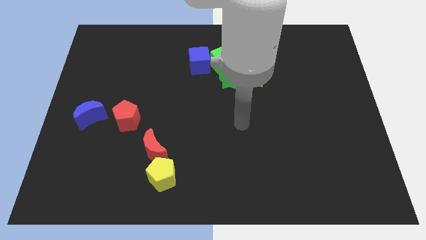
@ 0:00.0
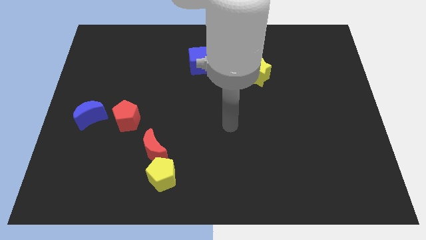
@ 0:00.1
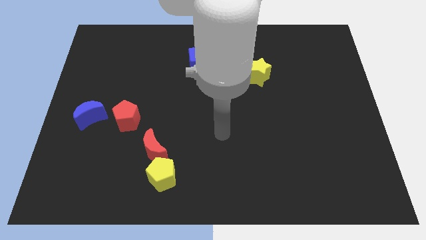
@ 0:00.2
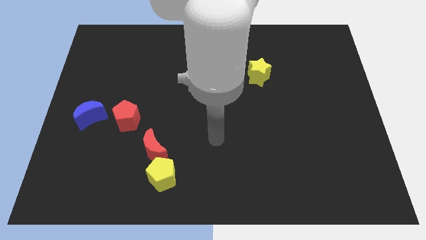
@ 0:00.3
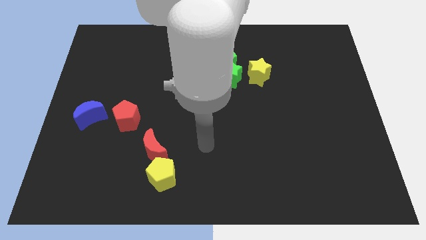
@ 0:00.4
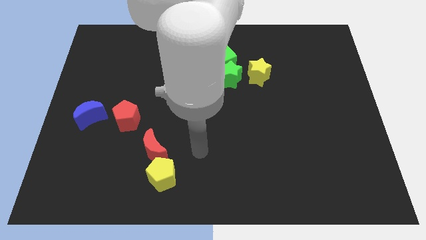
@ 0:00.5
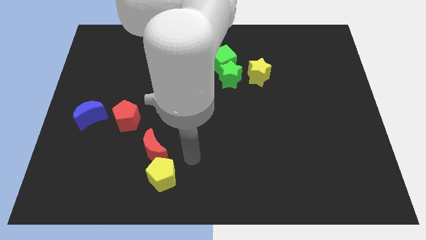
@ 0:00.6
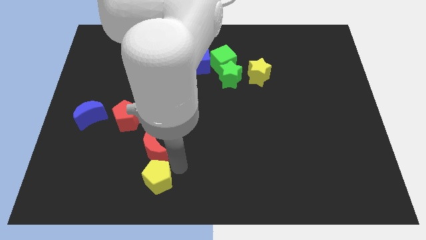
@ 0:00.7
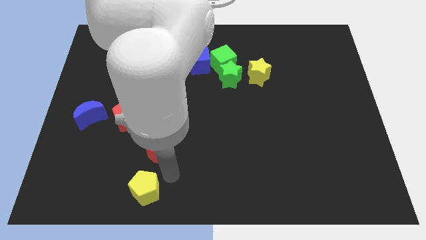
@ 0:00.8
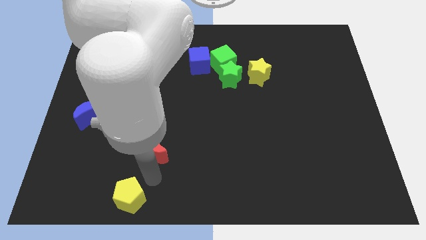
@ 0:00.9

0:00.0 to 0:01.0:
move the red moon away from the yellow pentagon

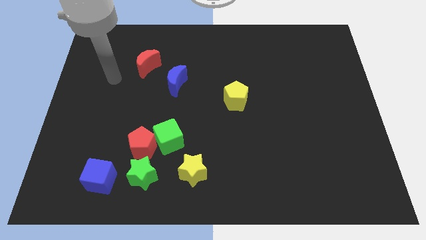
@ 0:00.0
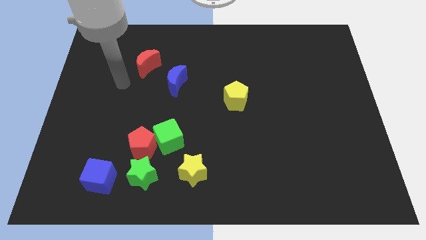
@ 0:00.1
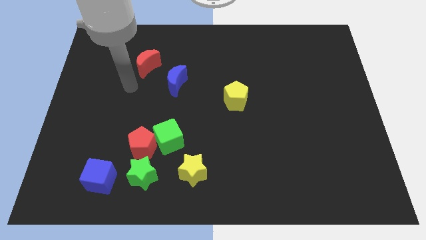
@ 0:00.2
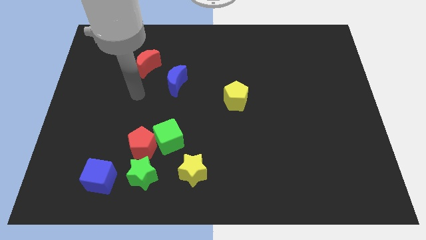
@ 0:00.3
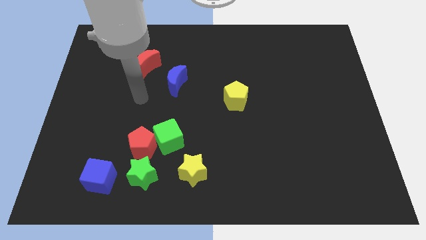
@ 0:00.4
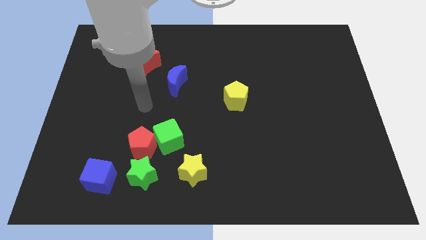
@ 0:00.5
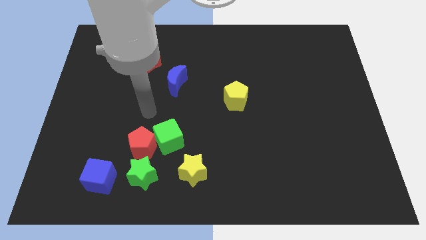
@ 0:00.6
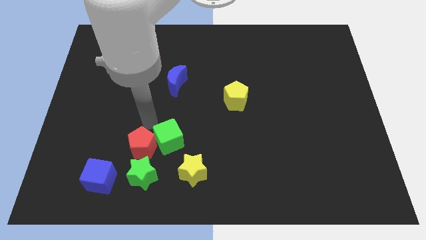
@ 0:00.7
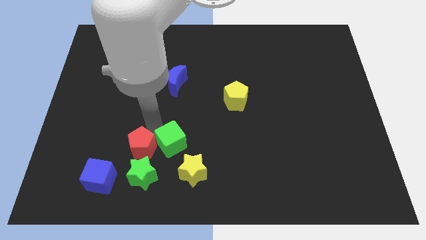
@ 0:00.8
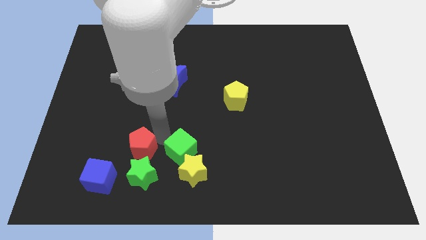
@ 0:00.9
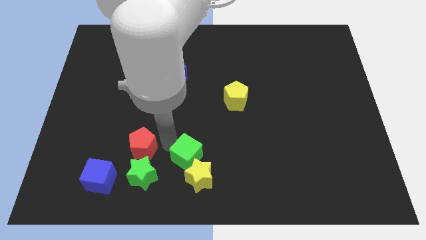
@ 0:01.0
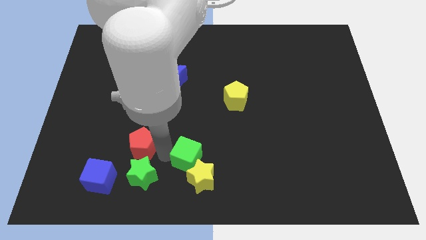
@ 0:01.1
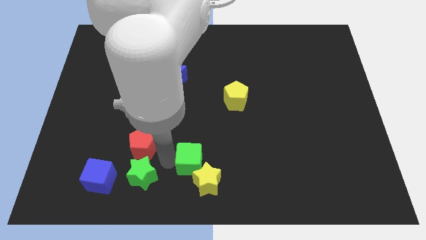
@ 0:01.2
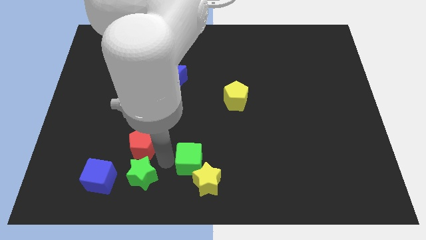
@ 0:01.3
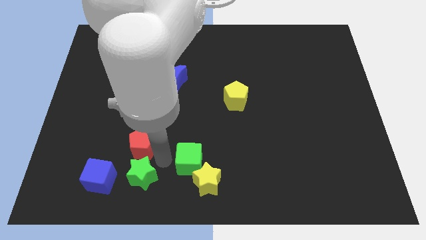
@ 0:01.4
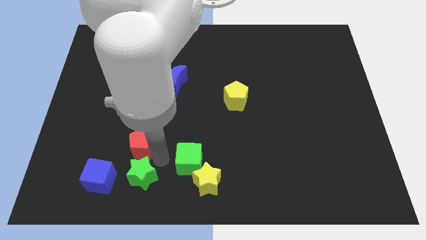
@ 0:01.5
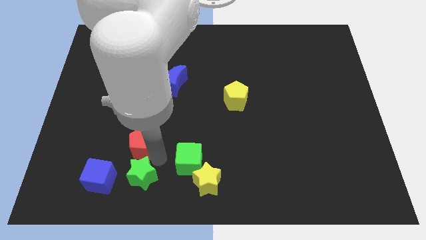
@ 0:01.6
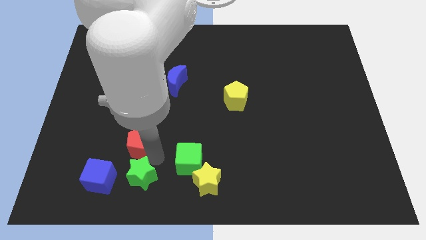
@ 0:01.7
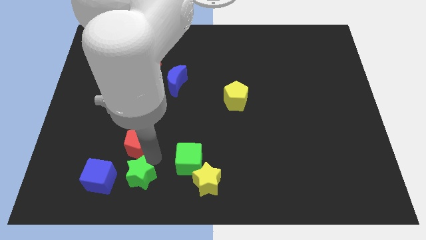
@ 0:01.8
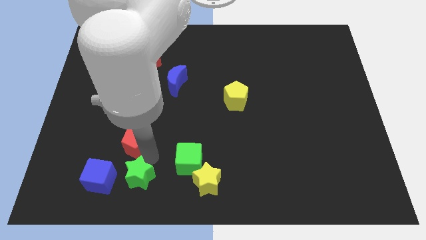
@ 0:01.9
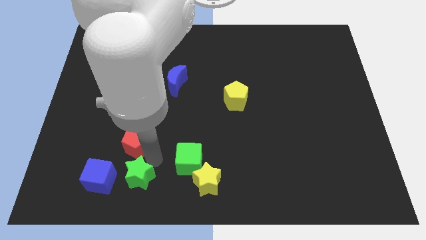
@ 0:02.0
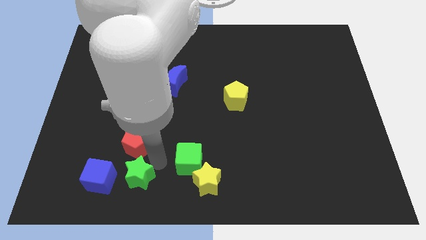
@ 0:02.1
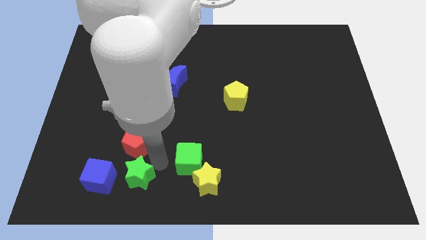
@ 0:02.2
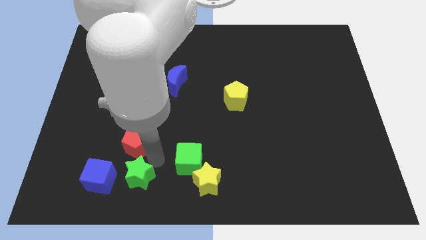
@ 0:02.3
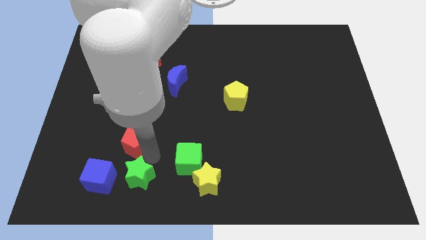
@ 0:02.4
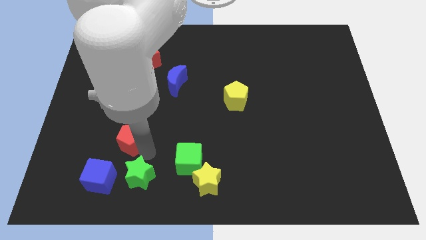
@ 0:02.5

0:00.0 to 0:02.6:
separate the red pentagon from the green cube and green star

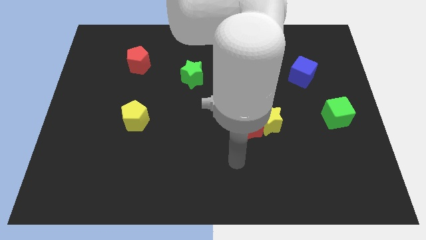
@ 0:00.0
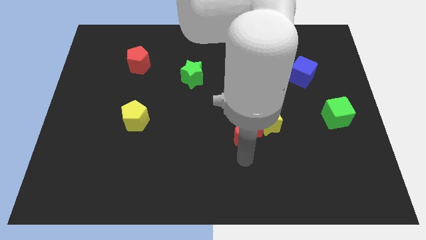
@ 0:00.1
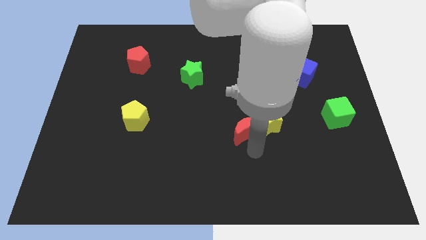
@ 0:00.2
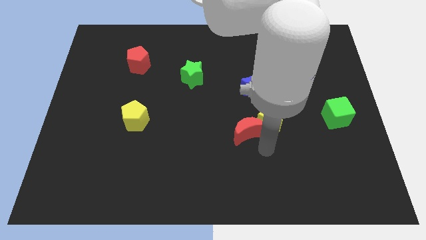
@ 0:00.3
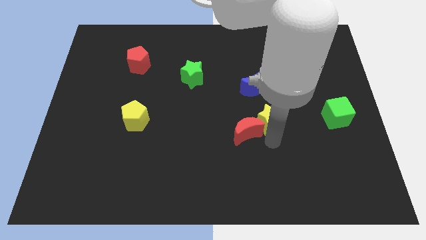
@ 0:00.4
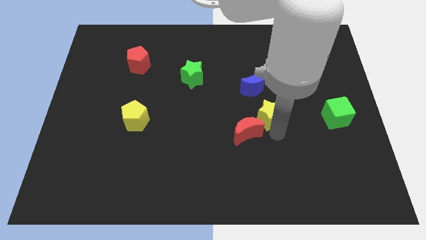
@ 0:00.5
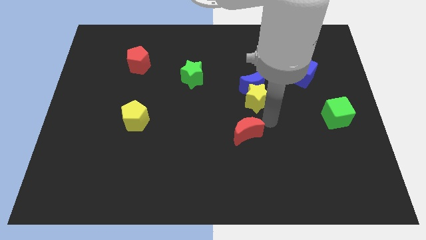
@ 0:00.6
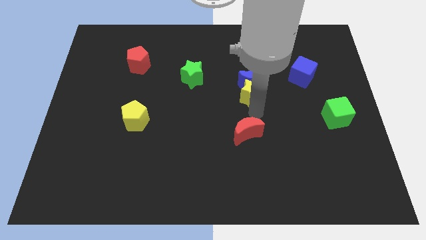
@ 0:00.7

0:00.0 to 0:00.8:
move the red moon away from the yellow star

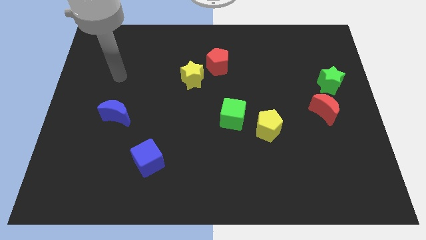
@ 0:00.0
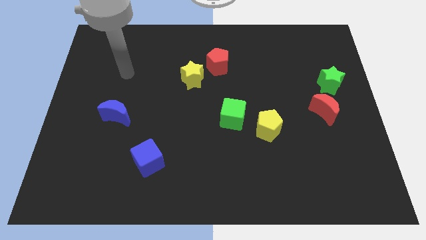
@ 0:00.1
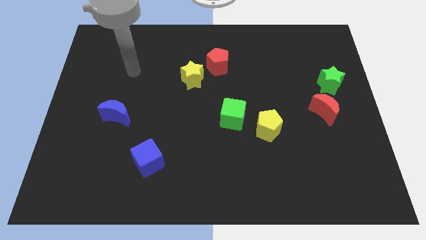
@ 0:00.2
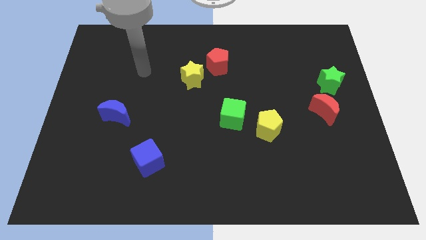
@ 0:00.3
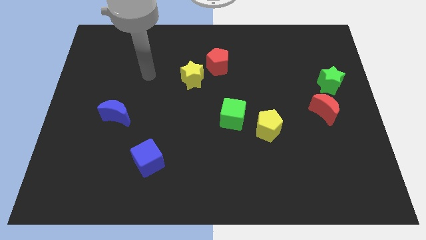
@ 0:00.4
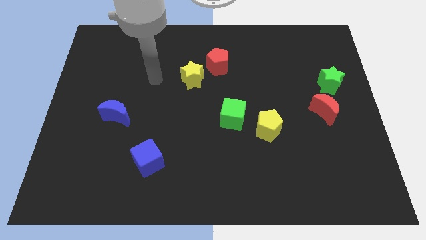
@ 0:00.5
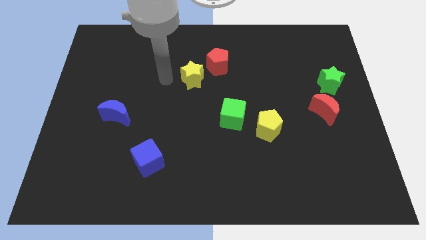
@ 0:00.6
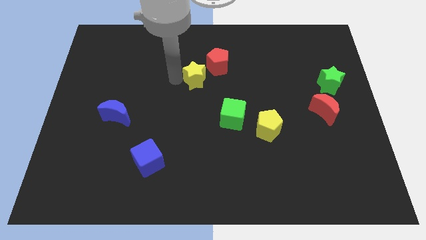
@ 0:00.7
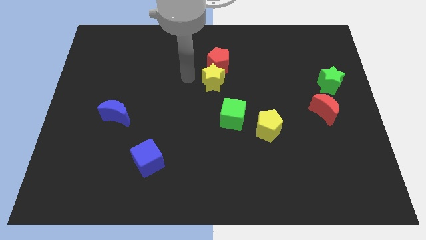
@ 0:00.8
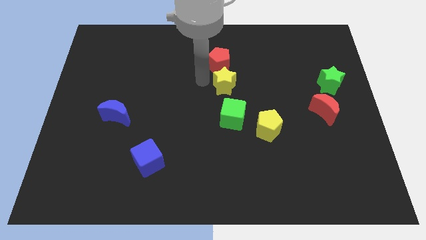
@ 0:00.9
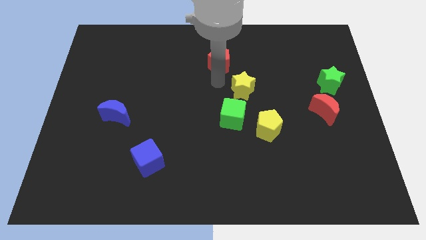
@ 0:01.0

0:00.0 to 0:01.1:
pull the red pentagon apart from the yellow star

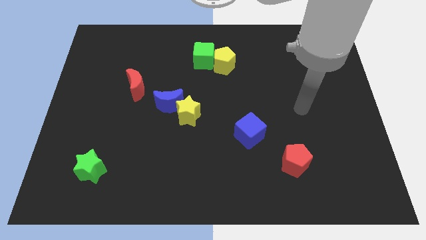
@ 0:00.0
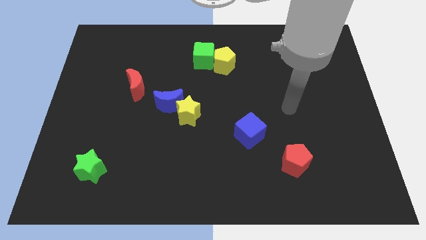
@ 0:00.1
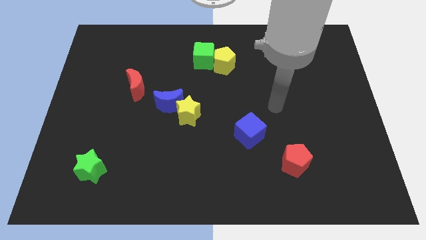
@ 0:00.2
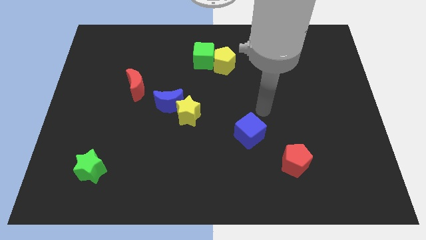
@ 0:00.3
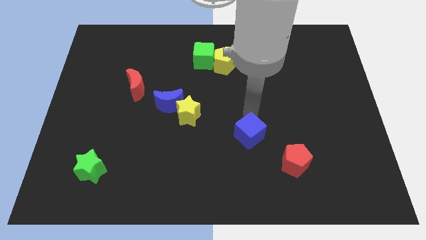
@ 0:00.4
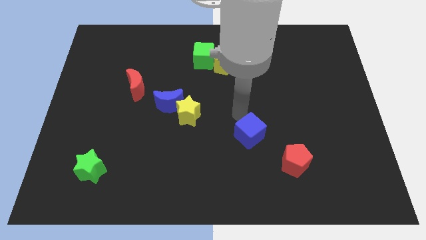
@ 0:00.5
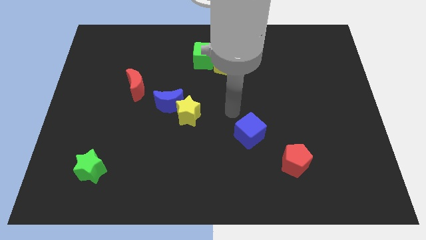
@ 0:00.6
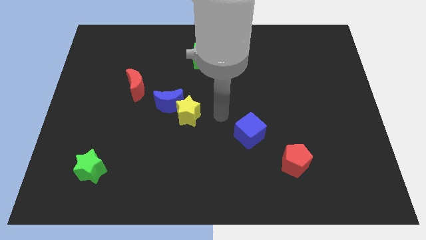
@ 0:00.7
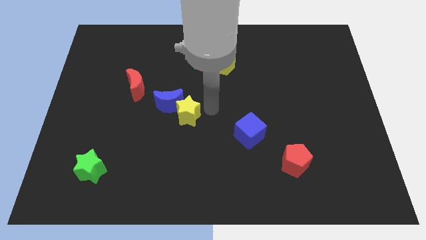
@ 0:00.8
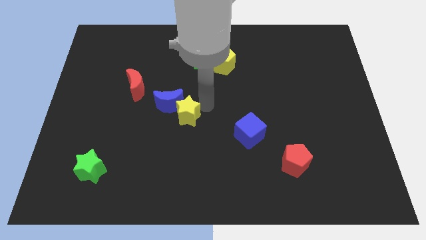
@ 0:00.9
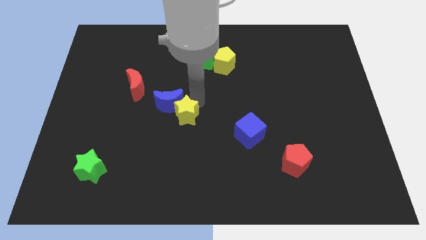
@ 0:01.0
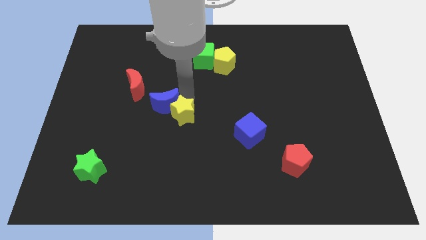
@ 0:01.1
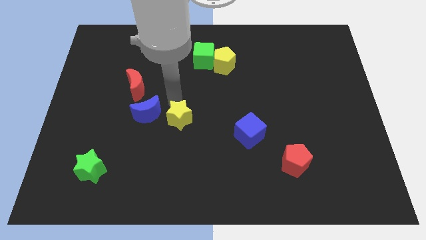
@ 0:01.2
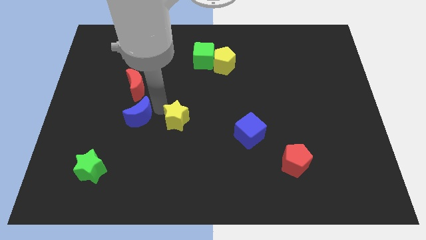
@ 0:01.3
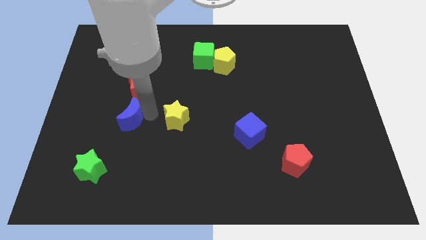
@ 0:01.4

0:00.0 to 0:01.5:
separate the yellow star from the blue moon

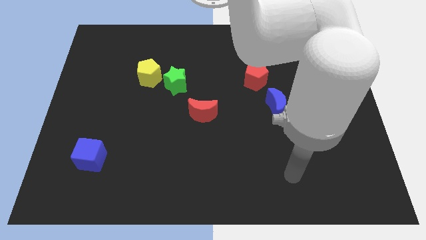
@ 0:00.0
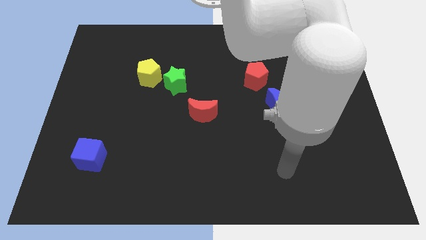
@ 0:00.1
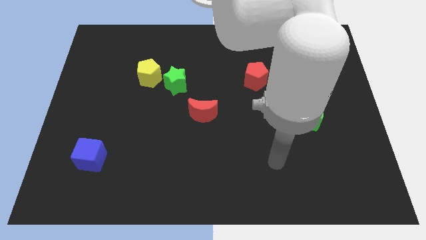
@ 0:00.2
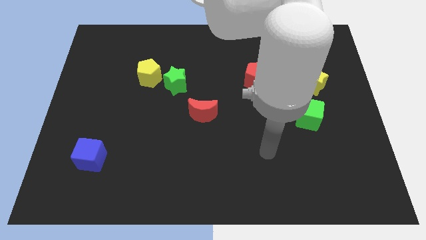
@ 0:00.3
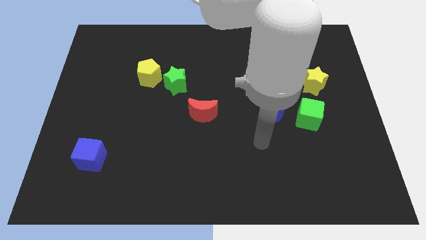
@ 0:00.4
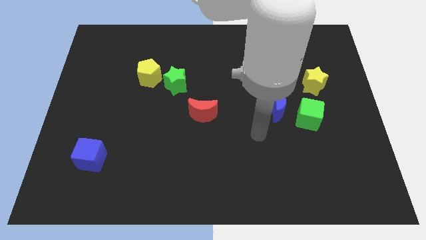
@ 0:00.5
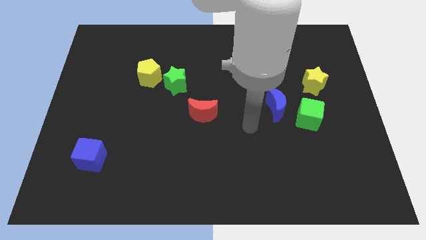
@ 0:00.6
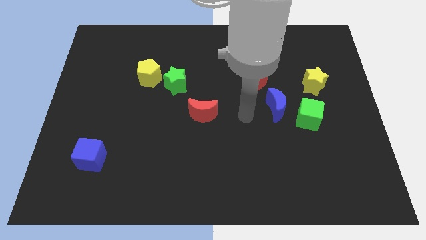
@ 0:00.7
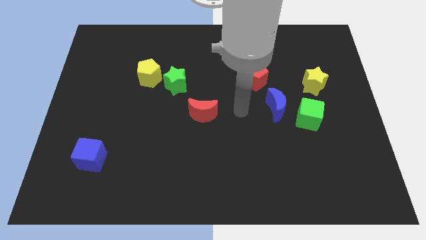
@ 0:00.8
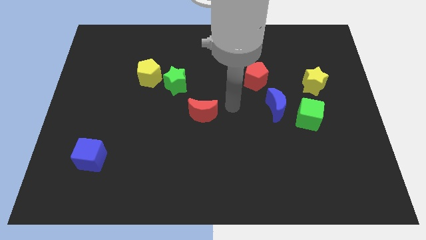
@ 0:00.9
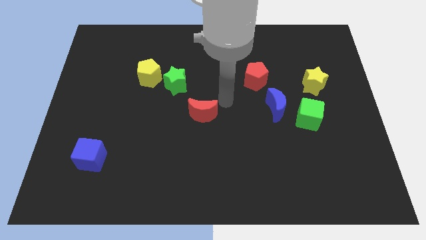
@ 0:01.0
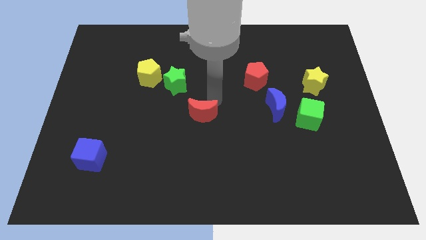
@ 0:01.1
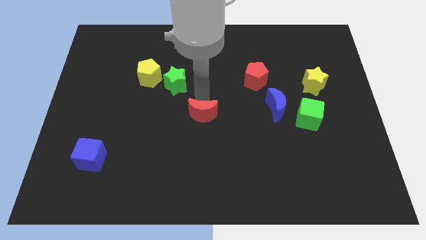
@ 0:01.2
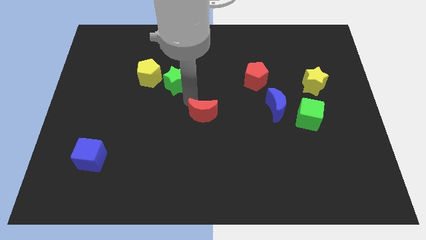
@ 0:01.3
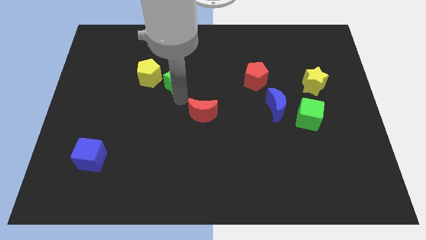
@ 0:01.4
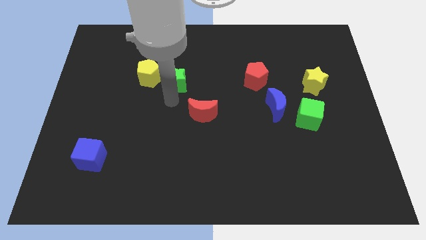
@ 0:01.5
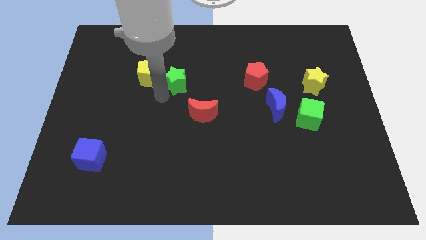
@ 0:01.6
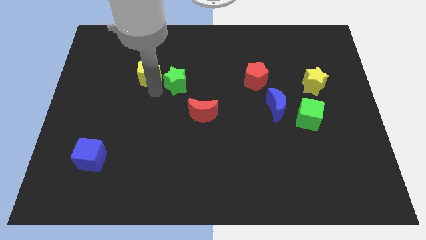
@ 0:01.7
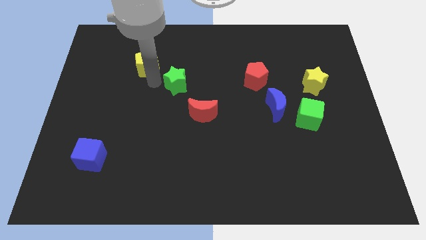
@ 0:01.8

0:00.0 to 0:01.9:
pull the green star apart from the yellow pentagon

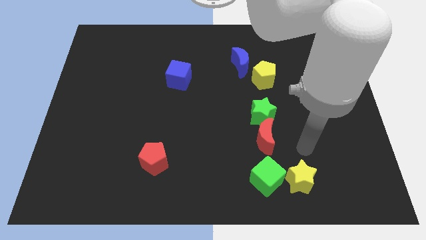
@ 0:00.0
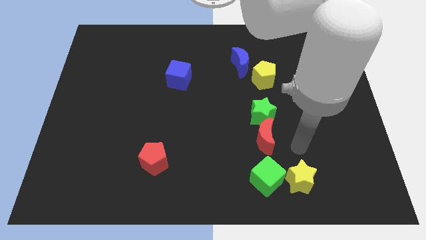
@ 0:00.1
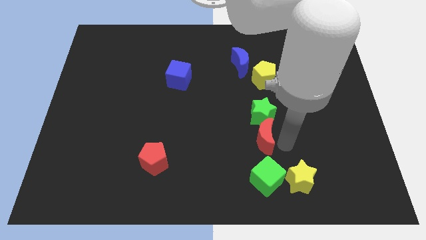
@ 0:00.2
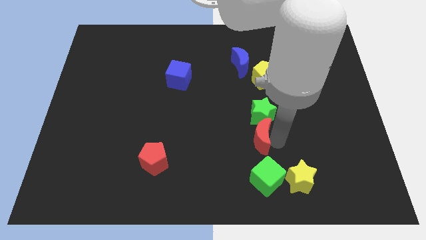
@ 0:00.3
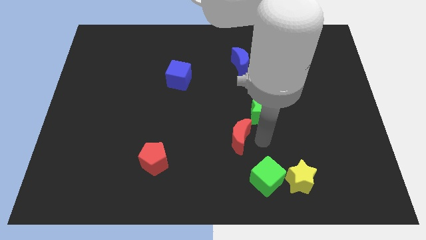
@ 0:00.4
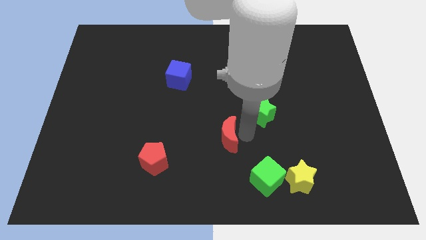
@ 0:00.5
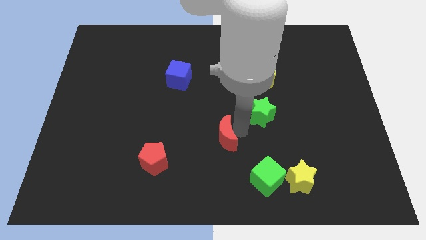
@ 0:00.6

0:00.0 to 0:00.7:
move the green star away from the red moon
